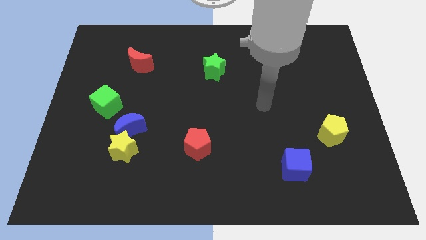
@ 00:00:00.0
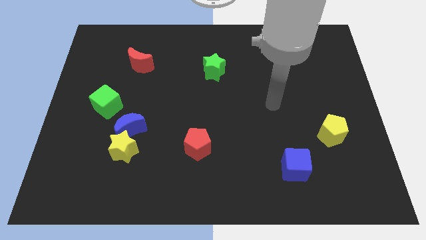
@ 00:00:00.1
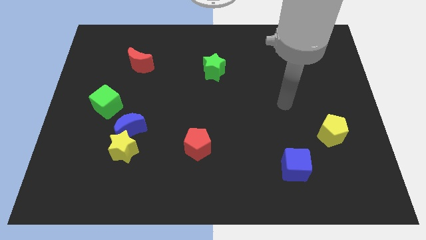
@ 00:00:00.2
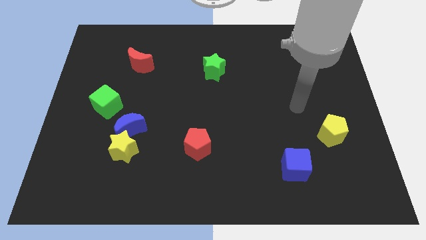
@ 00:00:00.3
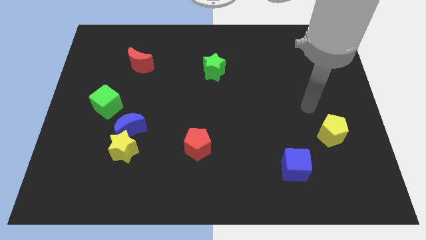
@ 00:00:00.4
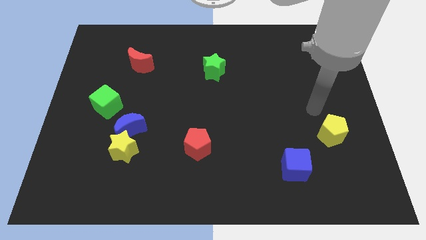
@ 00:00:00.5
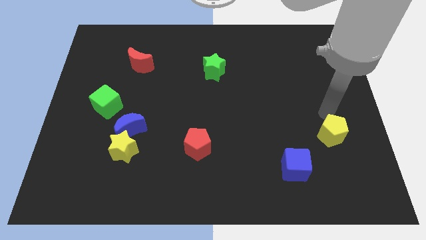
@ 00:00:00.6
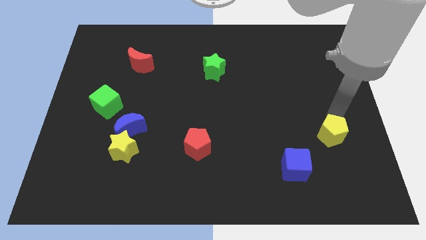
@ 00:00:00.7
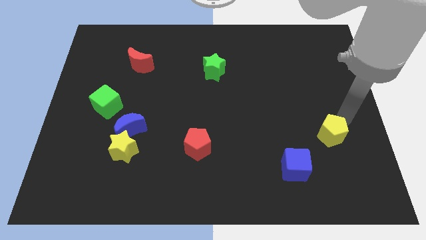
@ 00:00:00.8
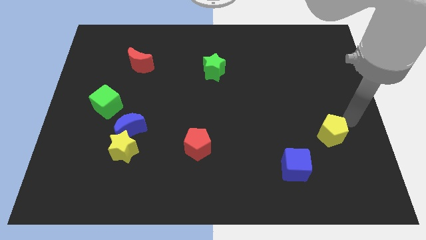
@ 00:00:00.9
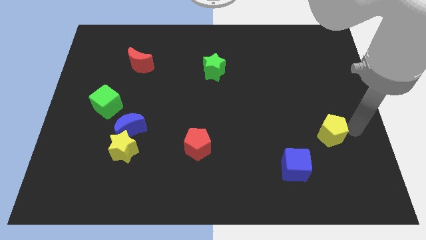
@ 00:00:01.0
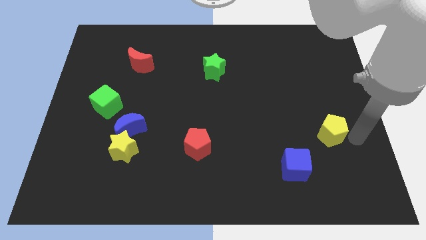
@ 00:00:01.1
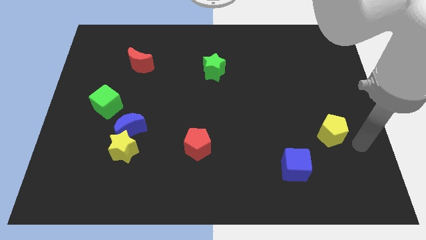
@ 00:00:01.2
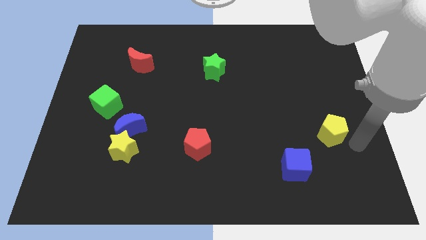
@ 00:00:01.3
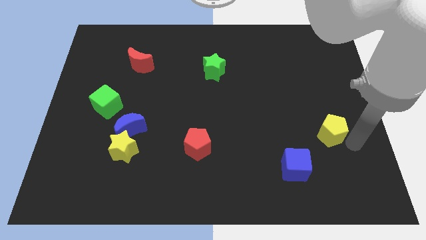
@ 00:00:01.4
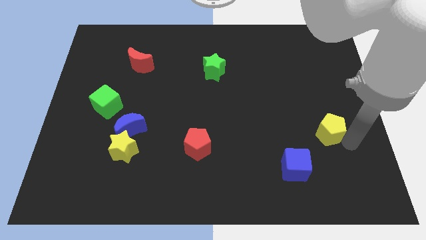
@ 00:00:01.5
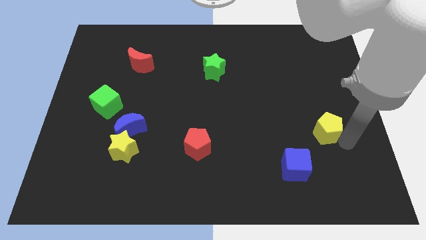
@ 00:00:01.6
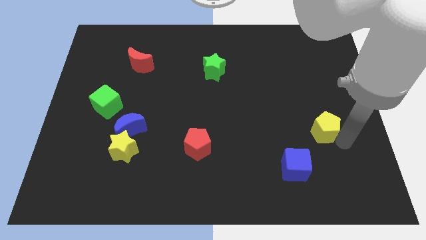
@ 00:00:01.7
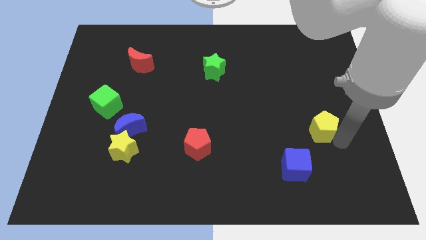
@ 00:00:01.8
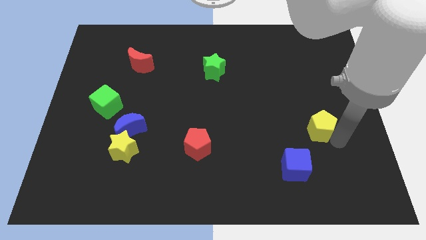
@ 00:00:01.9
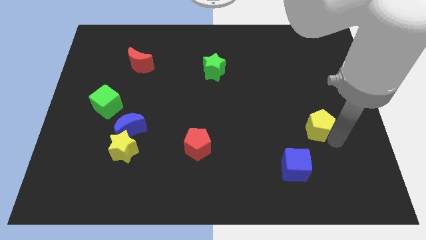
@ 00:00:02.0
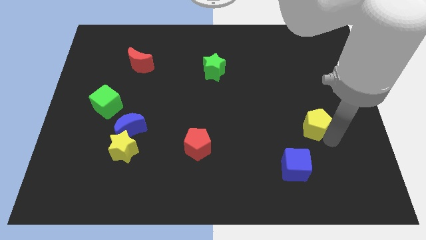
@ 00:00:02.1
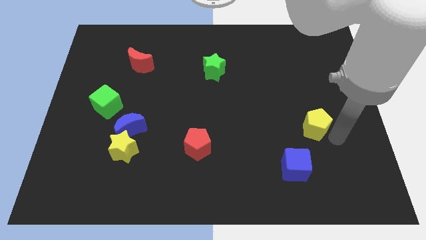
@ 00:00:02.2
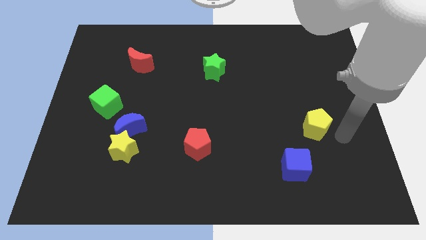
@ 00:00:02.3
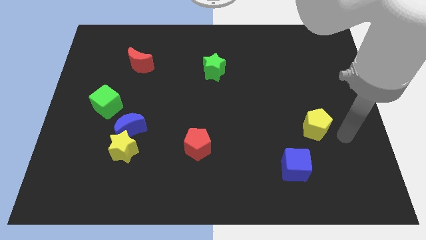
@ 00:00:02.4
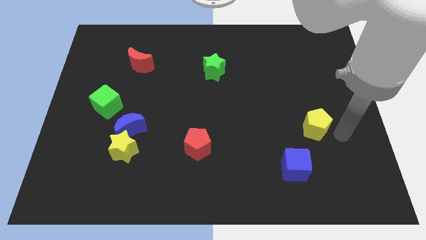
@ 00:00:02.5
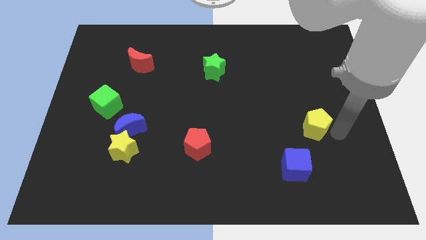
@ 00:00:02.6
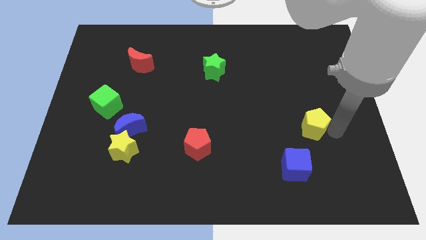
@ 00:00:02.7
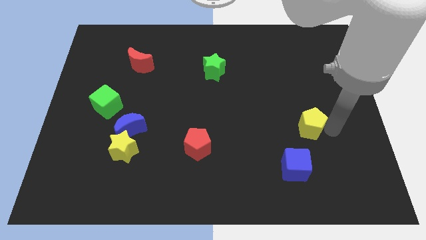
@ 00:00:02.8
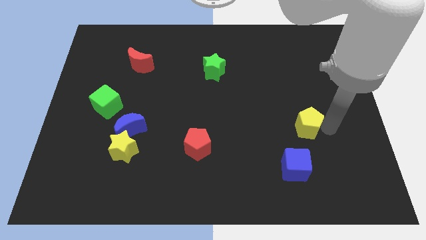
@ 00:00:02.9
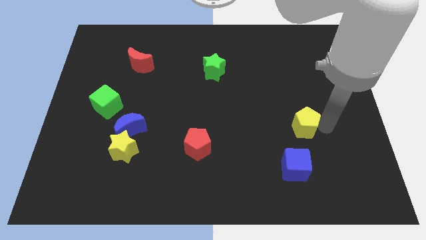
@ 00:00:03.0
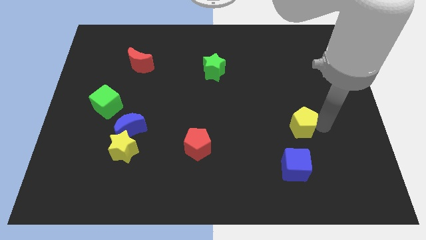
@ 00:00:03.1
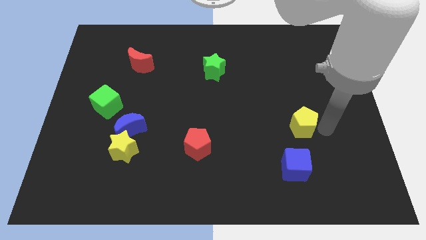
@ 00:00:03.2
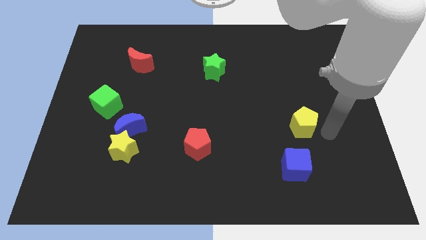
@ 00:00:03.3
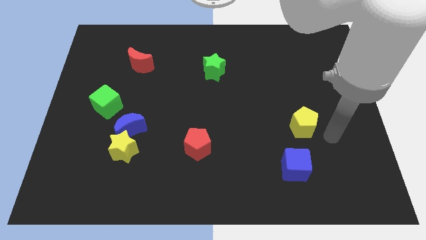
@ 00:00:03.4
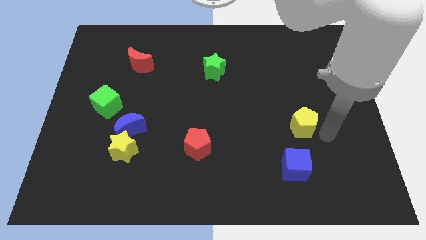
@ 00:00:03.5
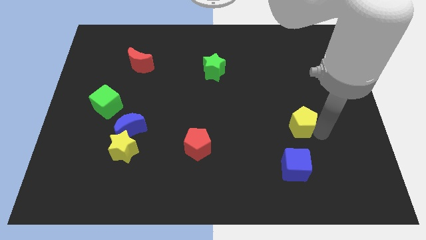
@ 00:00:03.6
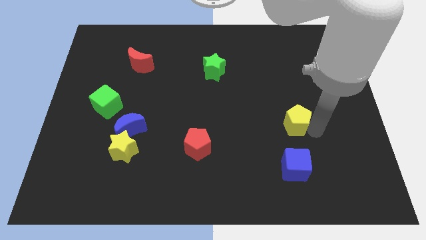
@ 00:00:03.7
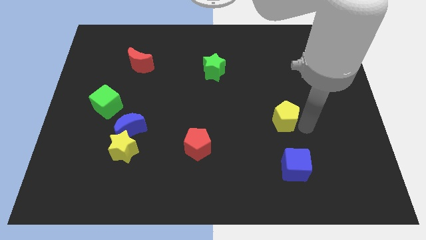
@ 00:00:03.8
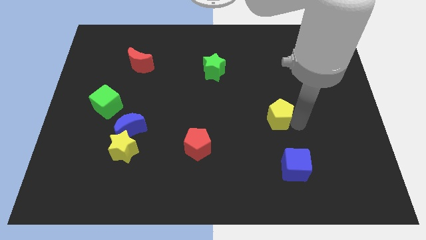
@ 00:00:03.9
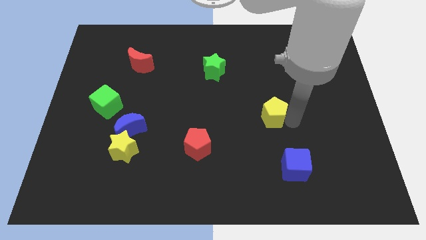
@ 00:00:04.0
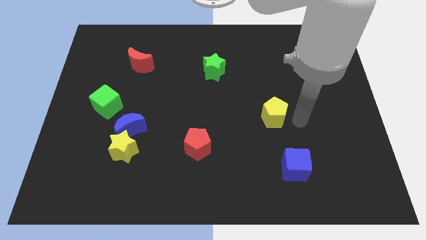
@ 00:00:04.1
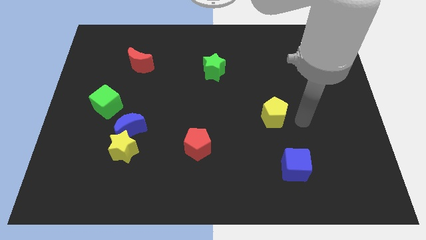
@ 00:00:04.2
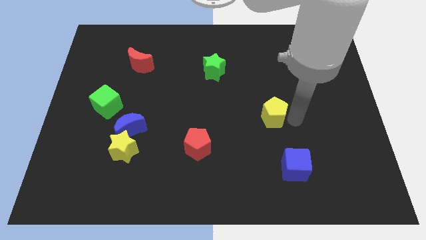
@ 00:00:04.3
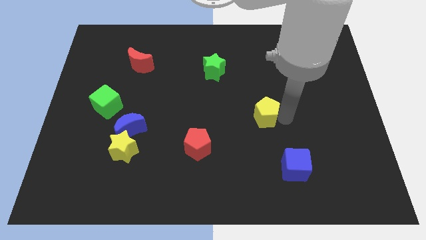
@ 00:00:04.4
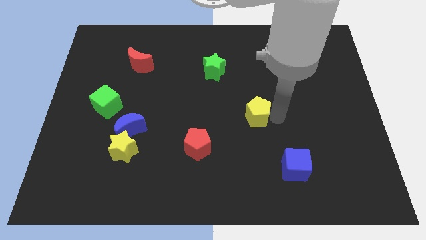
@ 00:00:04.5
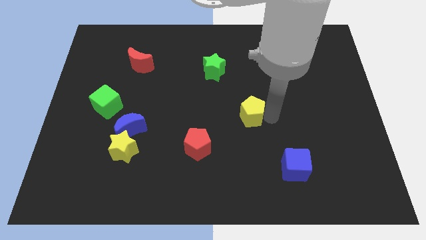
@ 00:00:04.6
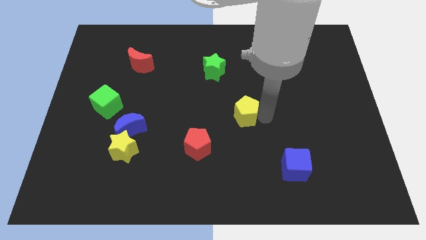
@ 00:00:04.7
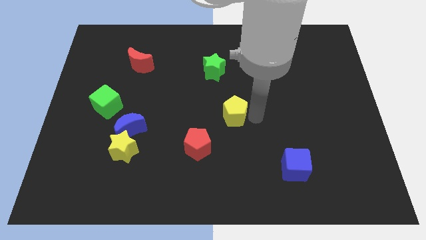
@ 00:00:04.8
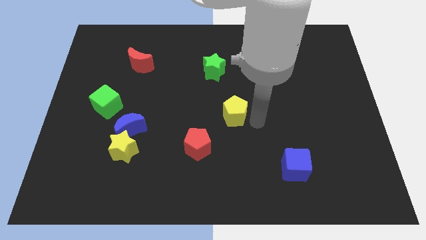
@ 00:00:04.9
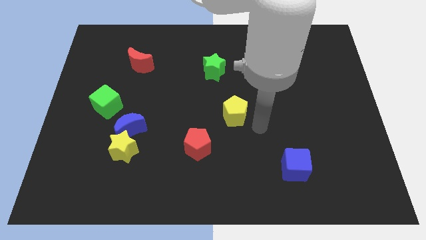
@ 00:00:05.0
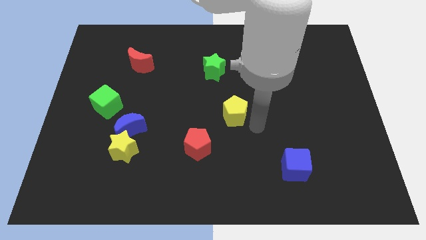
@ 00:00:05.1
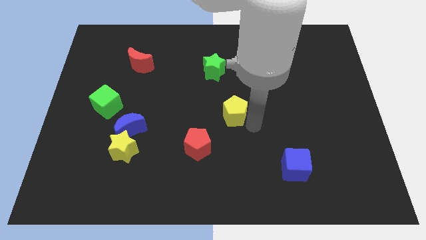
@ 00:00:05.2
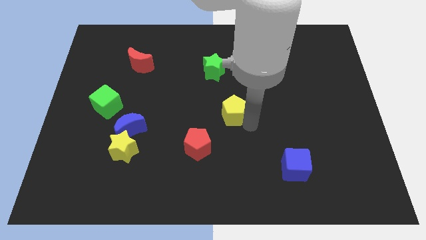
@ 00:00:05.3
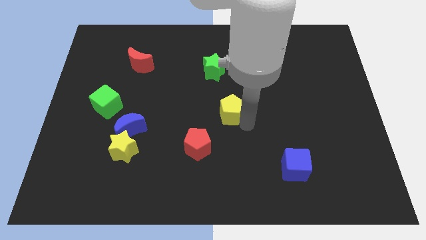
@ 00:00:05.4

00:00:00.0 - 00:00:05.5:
put the yellow pentagon below the green star

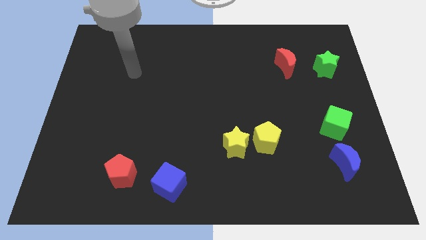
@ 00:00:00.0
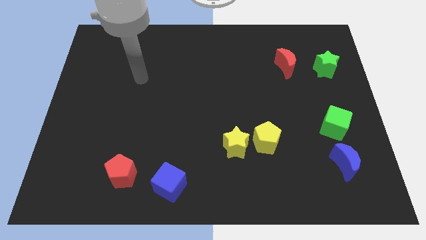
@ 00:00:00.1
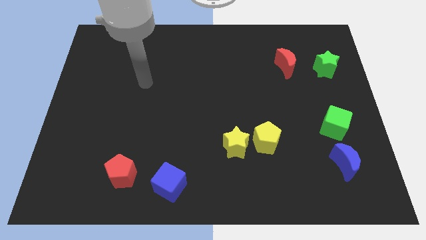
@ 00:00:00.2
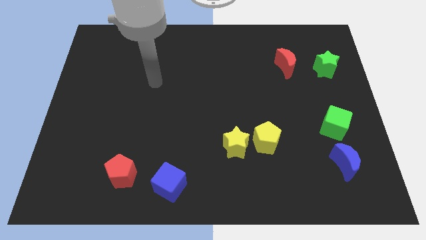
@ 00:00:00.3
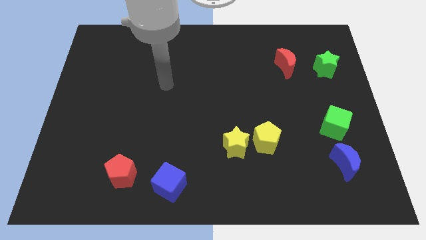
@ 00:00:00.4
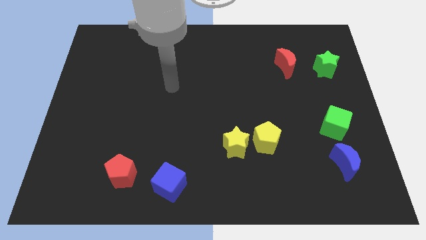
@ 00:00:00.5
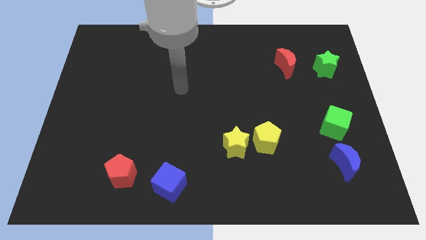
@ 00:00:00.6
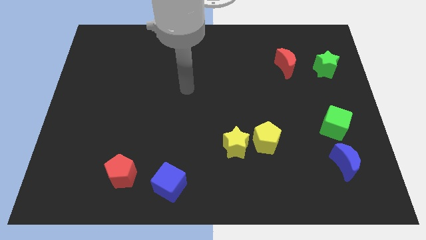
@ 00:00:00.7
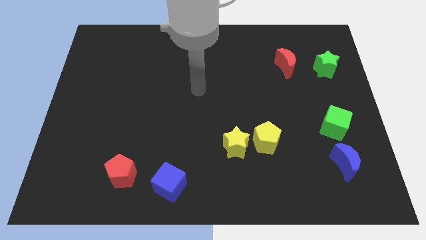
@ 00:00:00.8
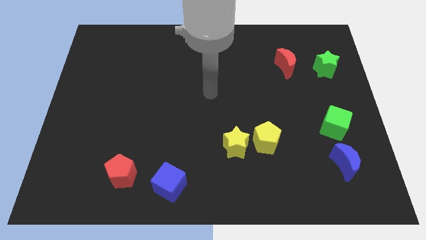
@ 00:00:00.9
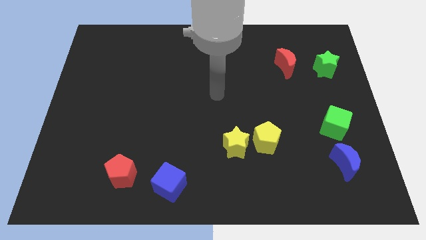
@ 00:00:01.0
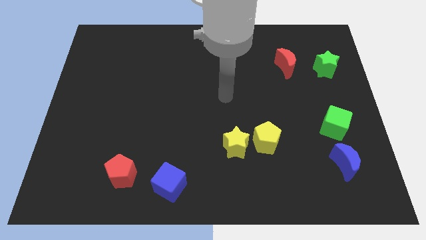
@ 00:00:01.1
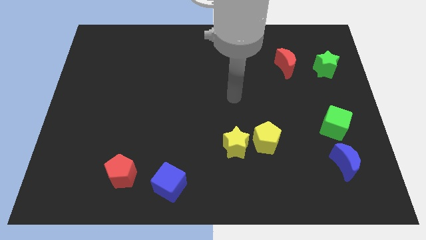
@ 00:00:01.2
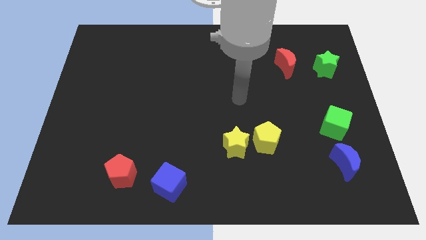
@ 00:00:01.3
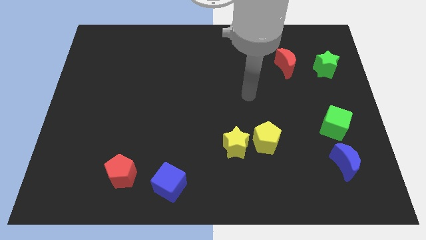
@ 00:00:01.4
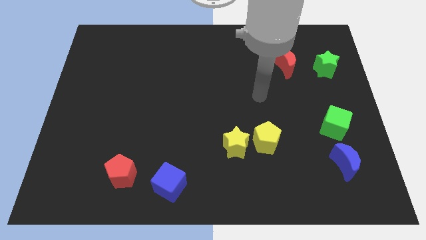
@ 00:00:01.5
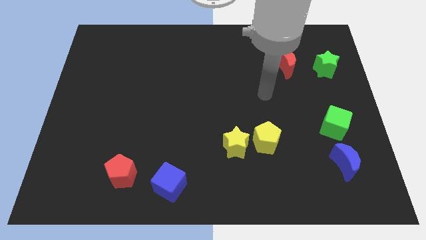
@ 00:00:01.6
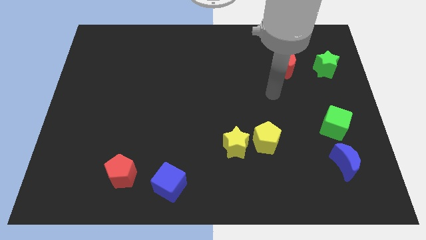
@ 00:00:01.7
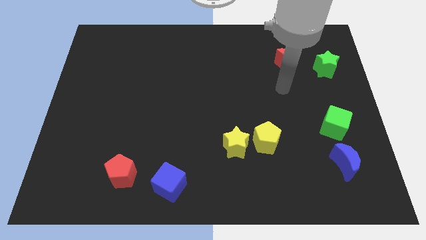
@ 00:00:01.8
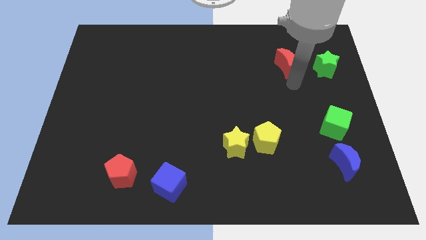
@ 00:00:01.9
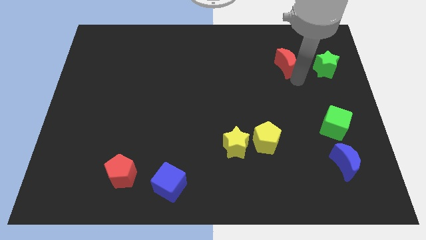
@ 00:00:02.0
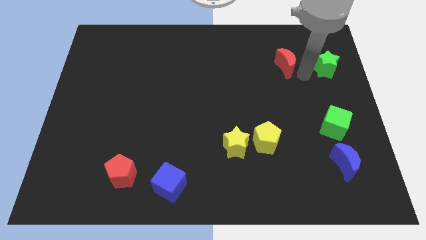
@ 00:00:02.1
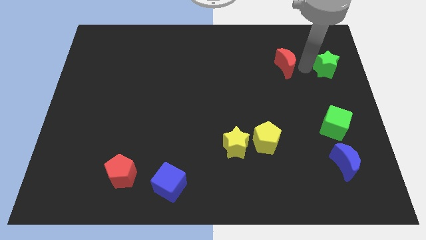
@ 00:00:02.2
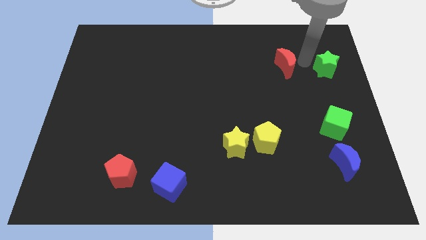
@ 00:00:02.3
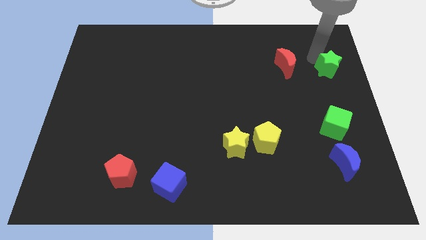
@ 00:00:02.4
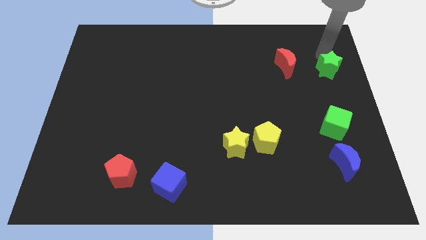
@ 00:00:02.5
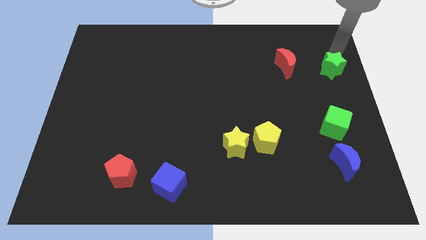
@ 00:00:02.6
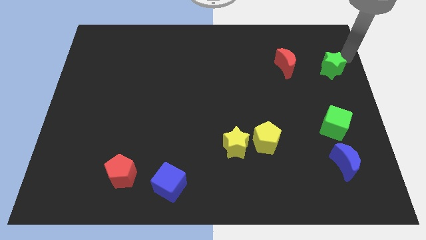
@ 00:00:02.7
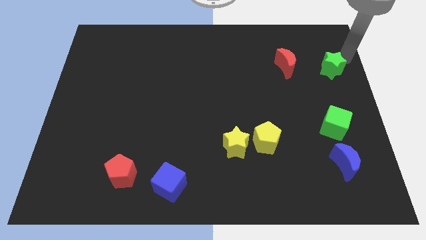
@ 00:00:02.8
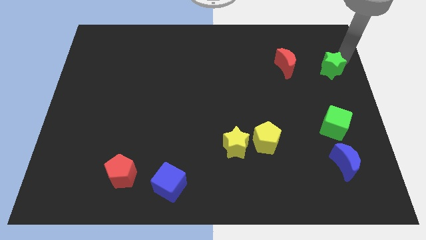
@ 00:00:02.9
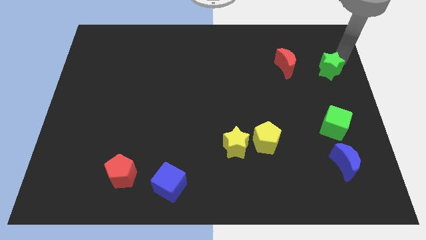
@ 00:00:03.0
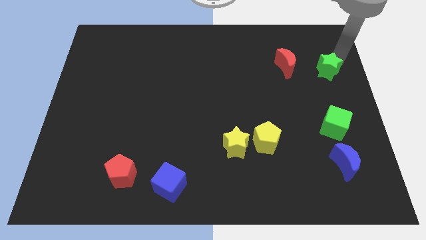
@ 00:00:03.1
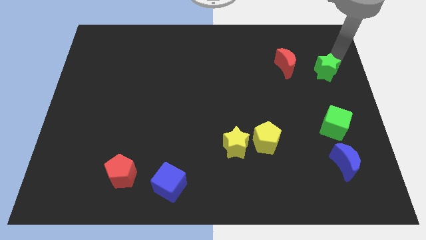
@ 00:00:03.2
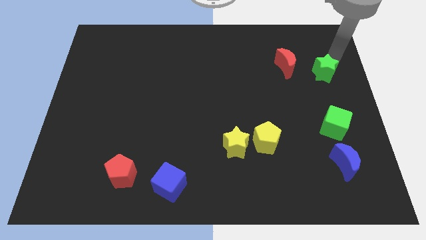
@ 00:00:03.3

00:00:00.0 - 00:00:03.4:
slide the green star to the bottom right side of the red moon
